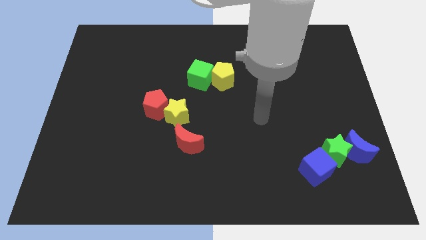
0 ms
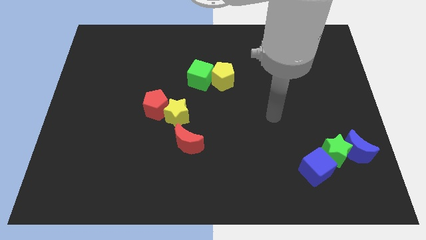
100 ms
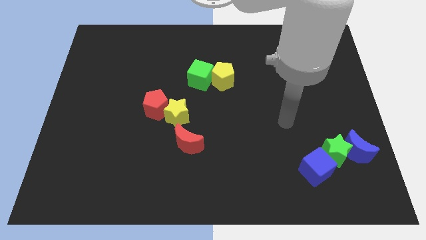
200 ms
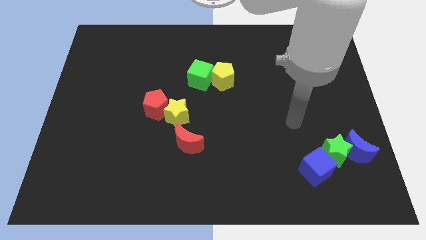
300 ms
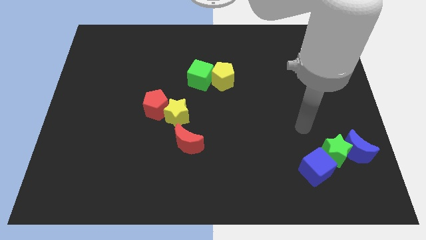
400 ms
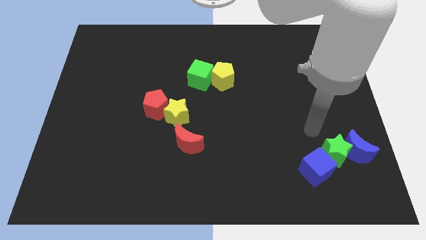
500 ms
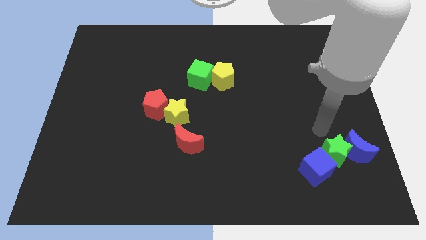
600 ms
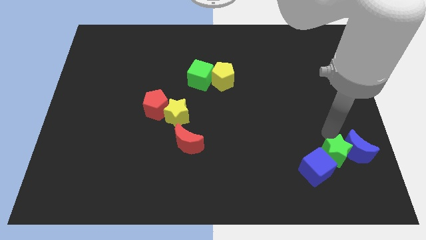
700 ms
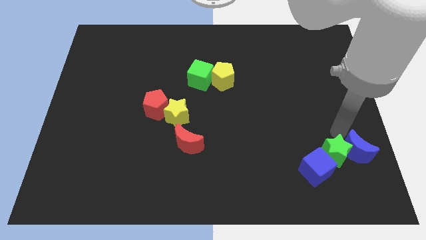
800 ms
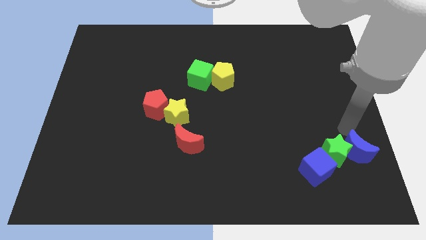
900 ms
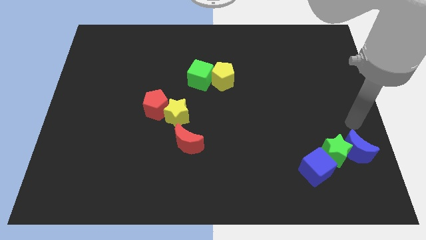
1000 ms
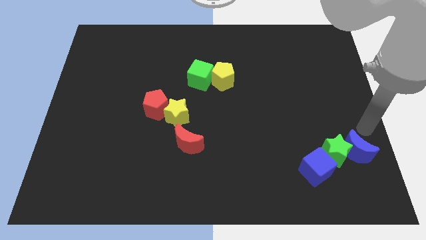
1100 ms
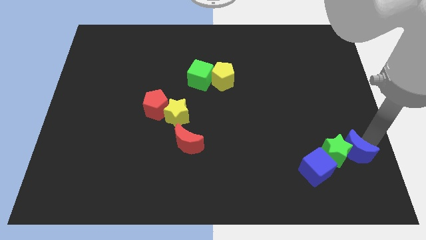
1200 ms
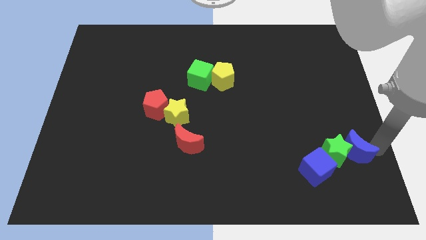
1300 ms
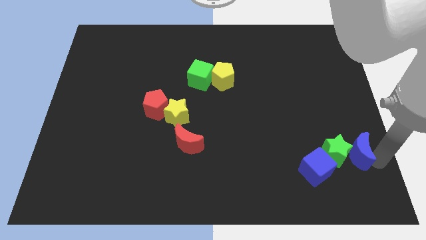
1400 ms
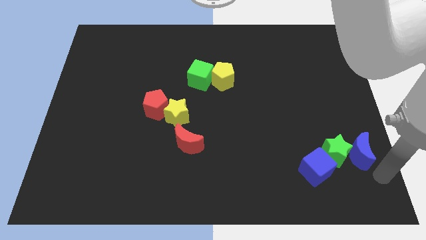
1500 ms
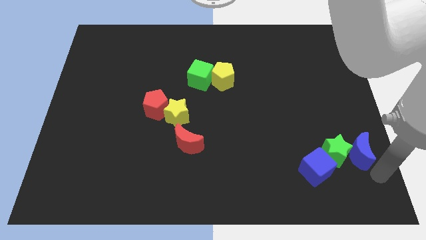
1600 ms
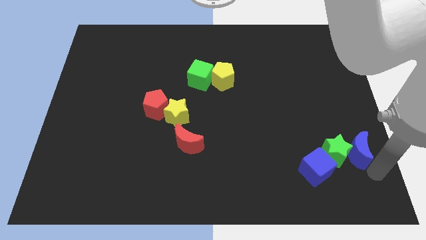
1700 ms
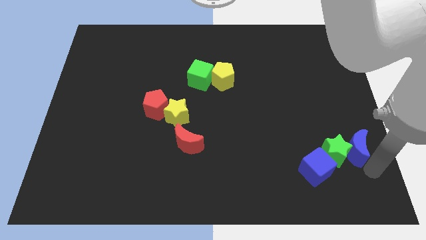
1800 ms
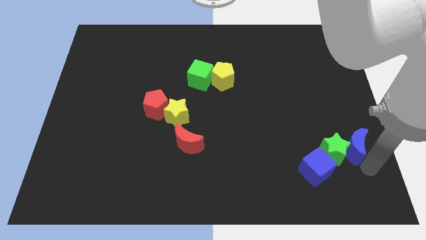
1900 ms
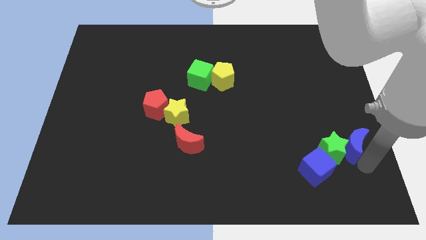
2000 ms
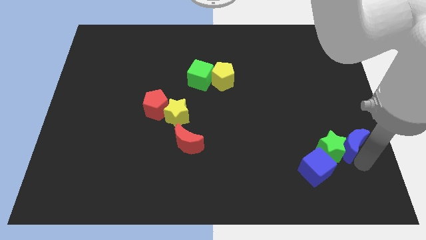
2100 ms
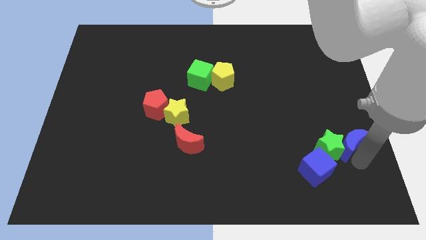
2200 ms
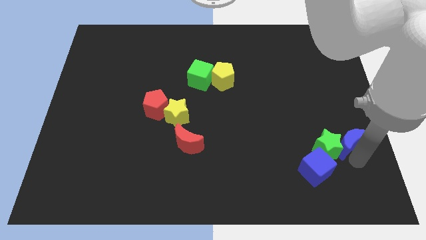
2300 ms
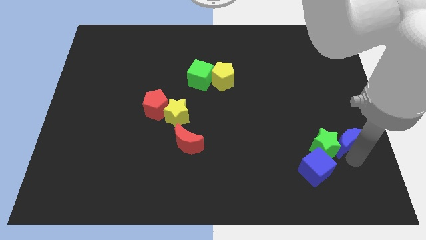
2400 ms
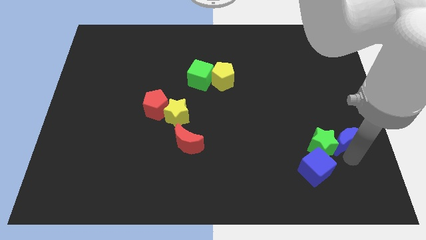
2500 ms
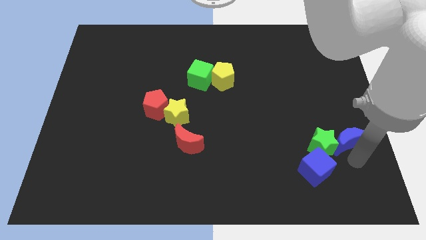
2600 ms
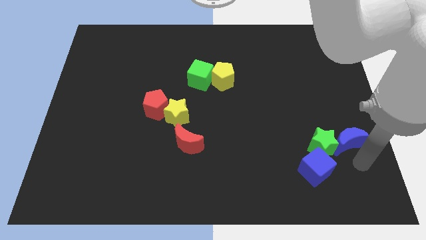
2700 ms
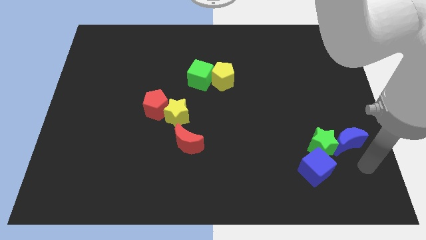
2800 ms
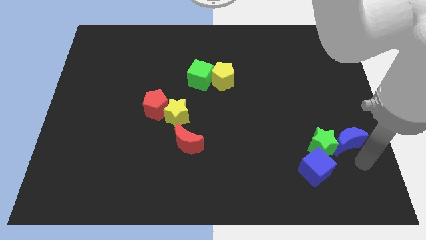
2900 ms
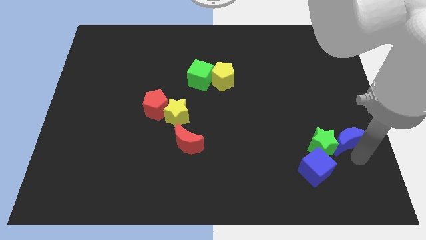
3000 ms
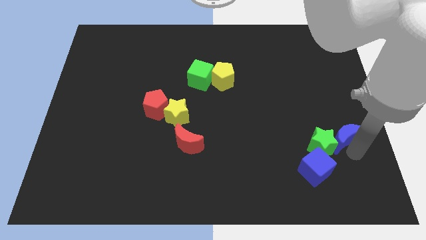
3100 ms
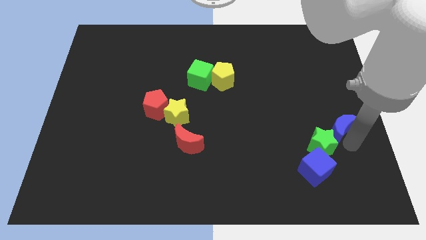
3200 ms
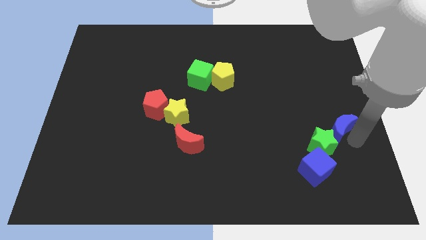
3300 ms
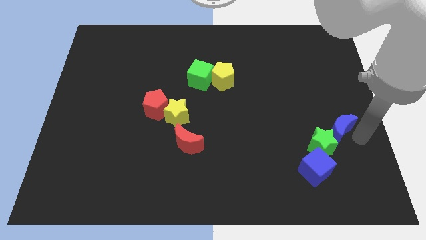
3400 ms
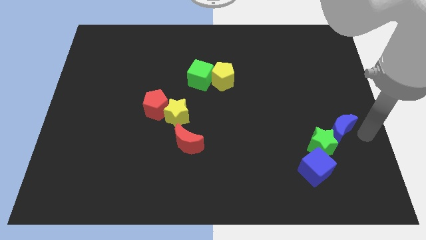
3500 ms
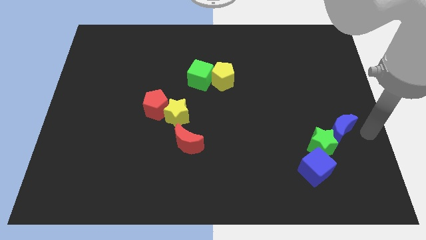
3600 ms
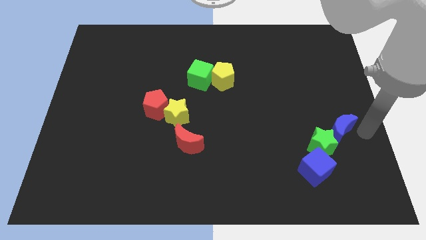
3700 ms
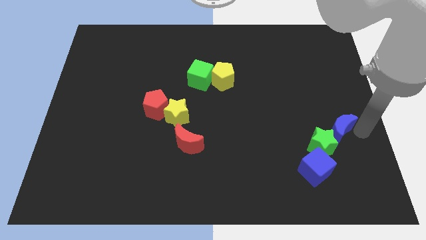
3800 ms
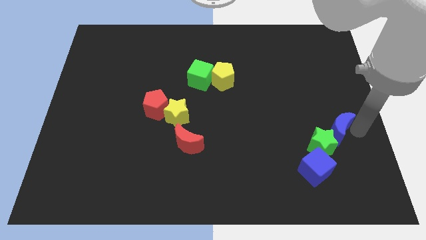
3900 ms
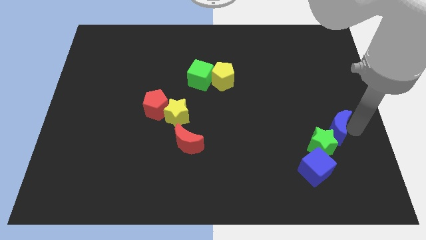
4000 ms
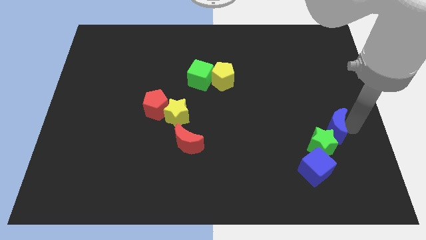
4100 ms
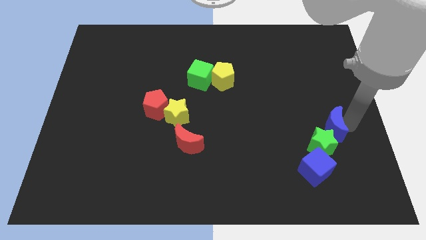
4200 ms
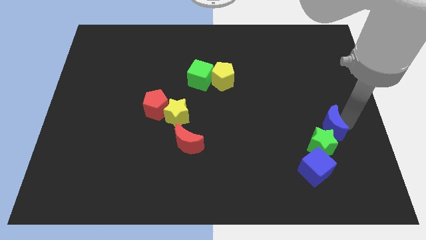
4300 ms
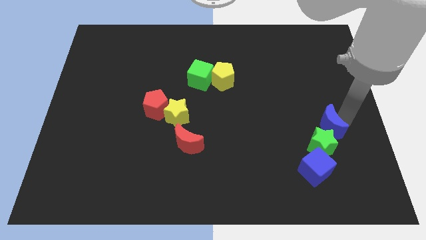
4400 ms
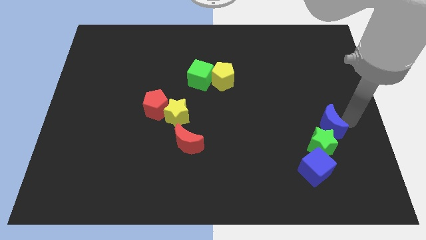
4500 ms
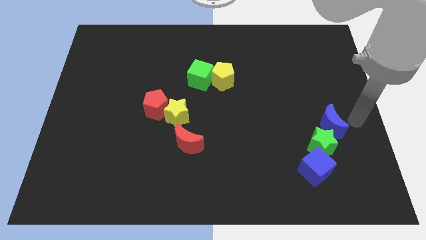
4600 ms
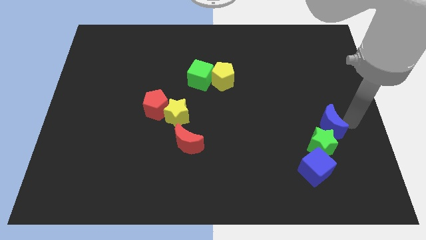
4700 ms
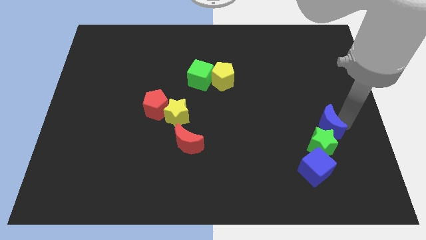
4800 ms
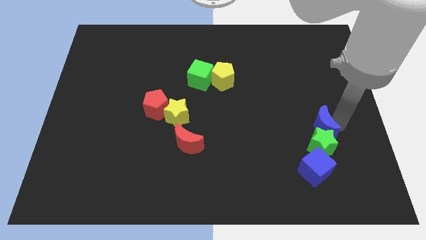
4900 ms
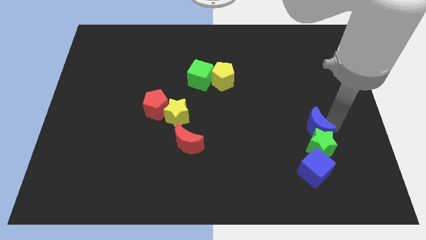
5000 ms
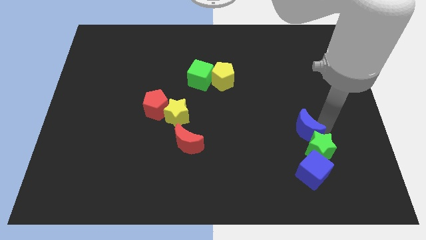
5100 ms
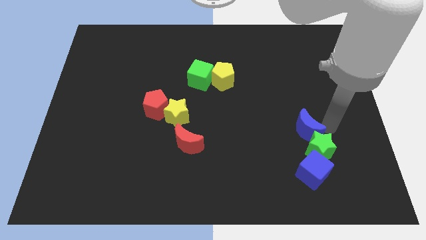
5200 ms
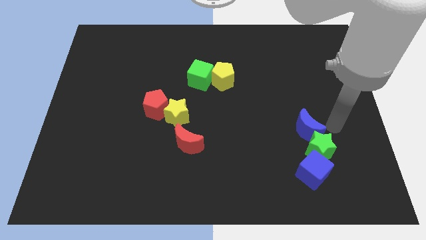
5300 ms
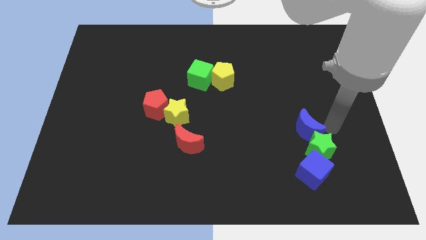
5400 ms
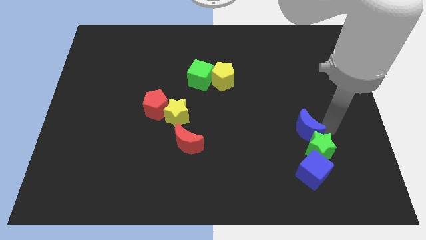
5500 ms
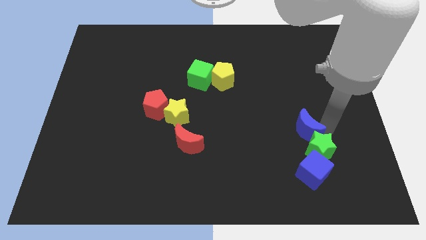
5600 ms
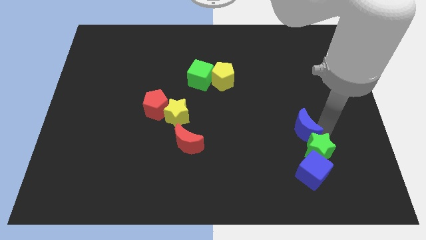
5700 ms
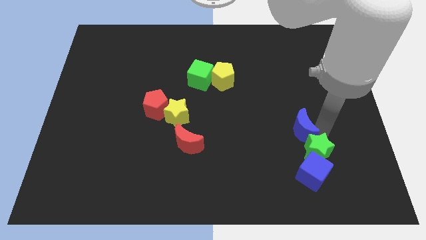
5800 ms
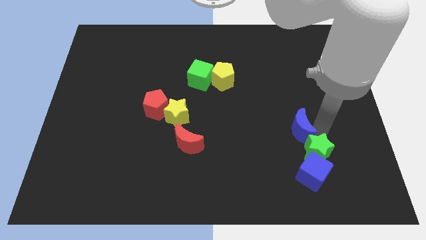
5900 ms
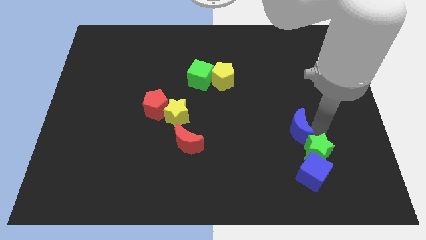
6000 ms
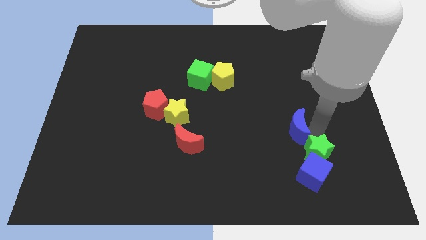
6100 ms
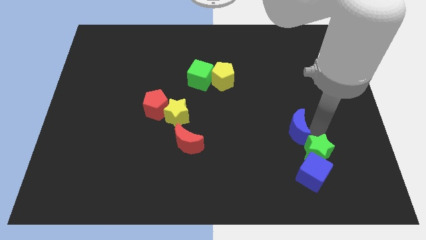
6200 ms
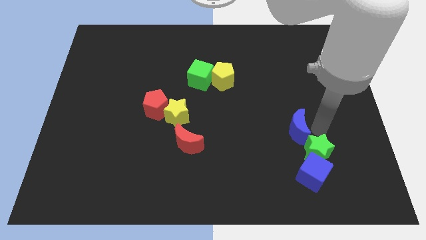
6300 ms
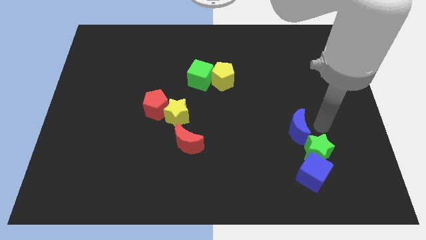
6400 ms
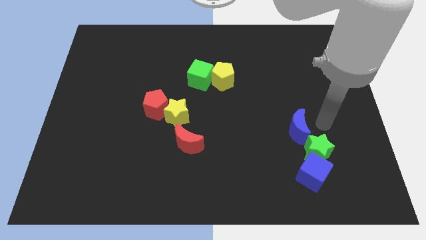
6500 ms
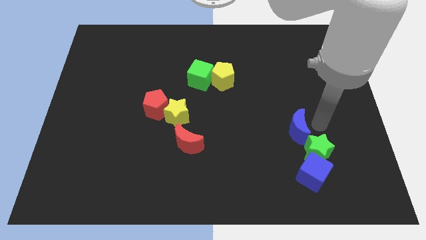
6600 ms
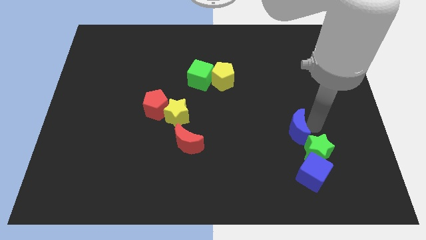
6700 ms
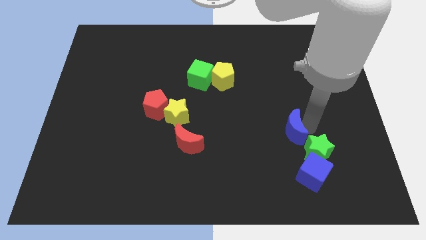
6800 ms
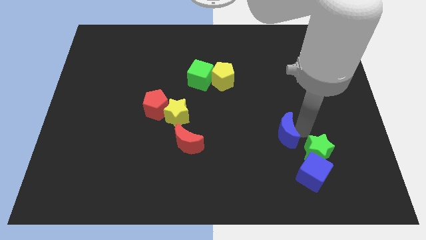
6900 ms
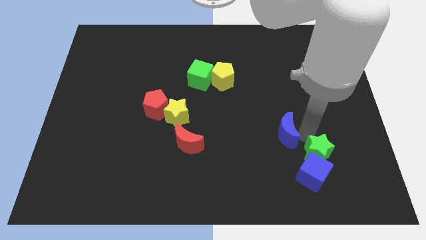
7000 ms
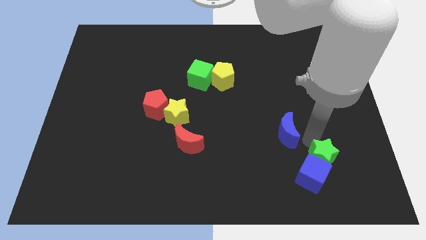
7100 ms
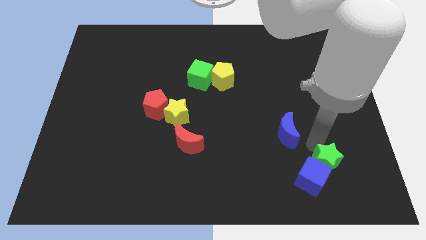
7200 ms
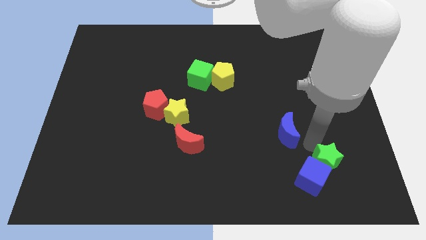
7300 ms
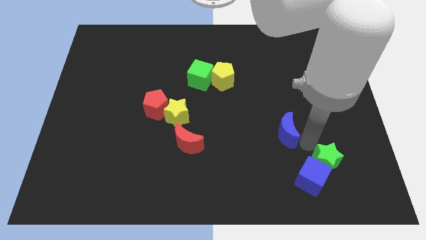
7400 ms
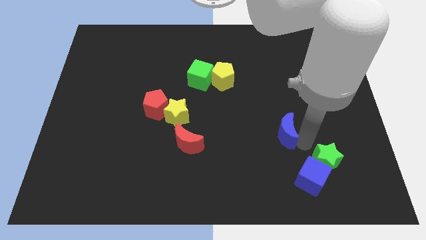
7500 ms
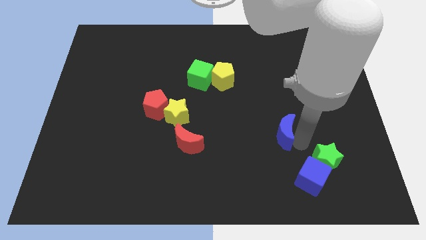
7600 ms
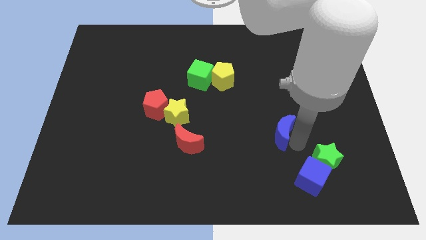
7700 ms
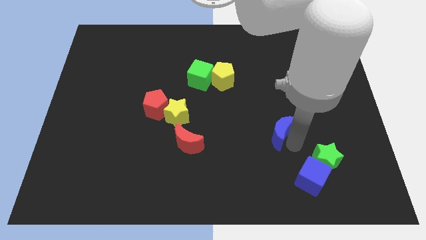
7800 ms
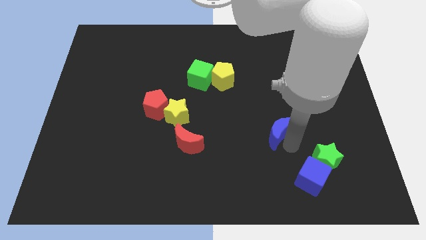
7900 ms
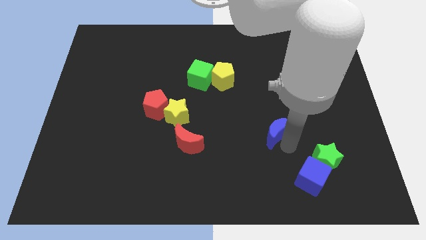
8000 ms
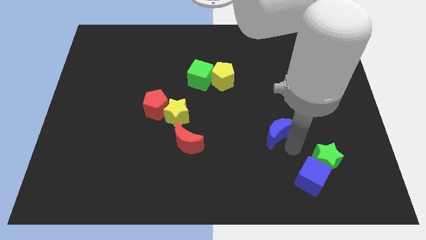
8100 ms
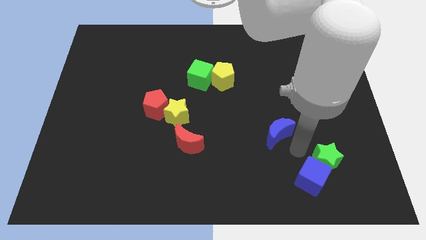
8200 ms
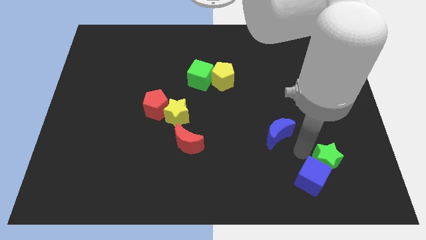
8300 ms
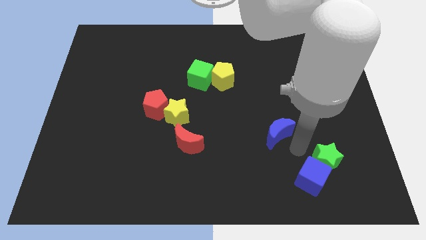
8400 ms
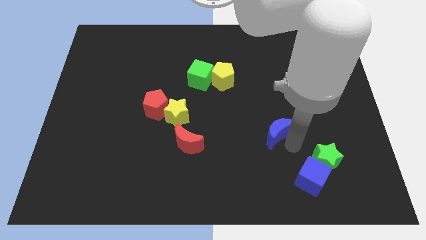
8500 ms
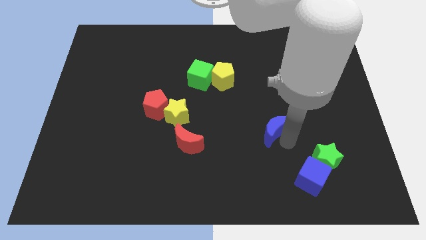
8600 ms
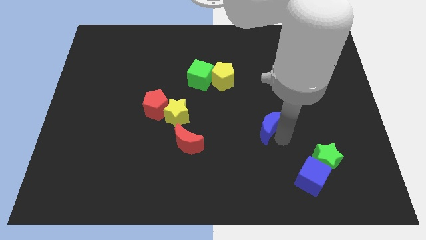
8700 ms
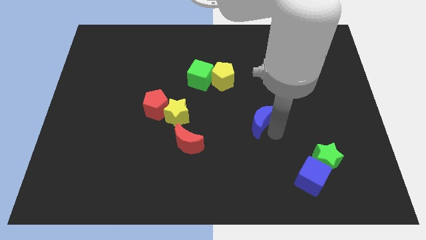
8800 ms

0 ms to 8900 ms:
slide the blue moon to the center
